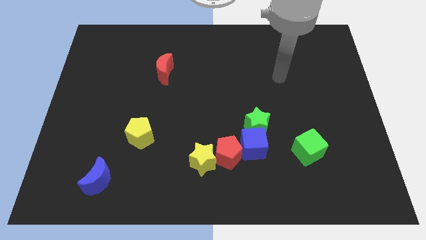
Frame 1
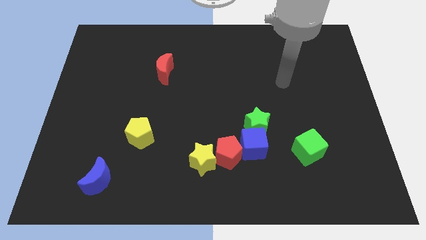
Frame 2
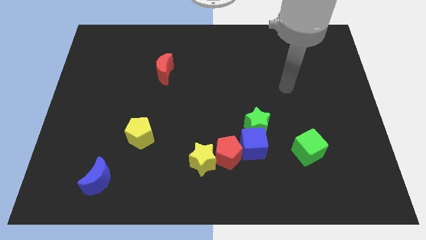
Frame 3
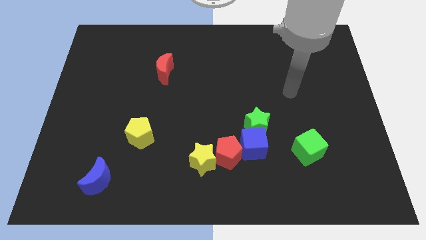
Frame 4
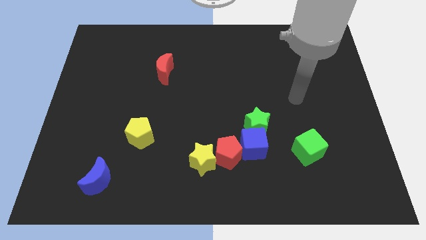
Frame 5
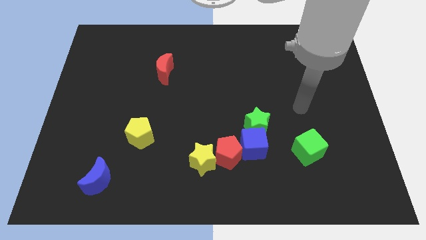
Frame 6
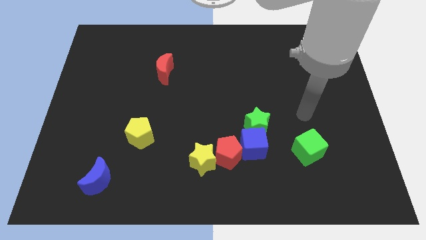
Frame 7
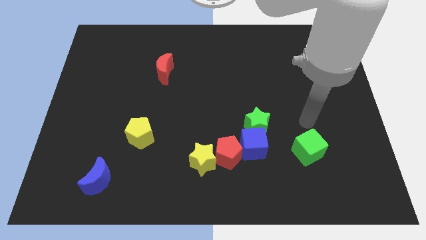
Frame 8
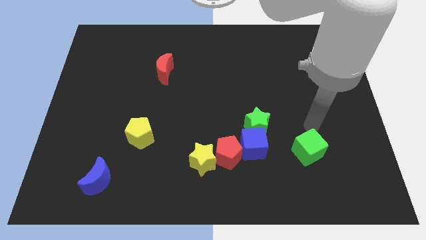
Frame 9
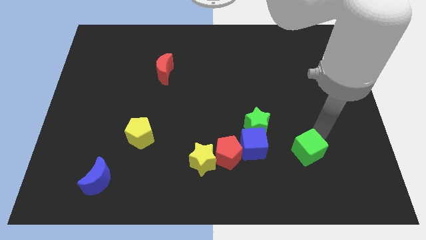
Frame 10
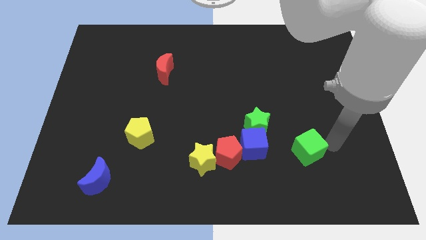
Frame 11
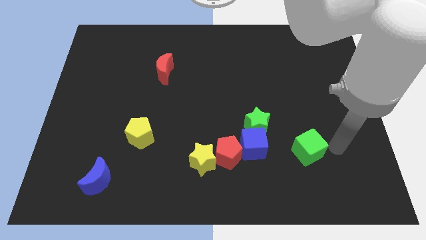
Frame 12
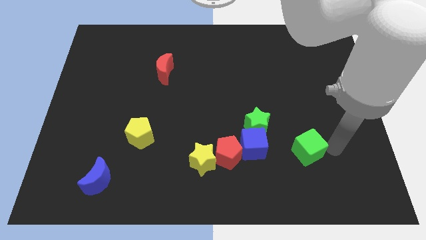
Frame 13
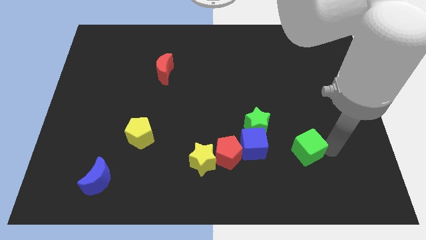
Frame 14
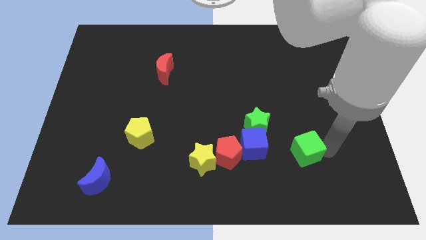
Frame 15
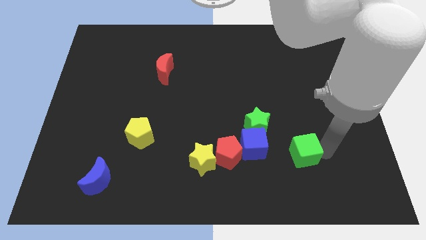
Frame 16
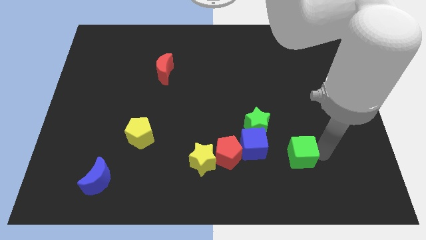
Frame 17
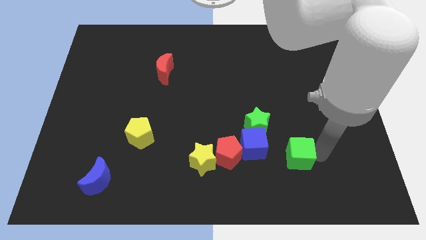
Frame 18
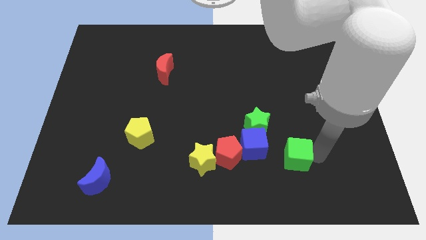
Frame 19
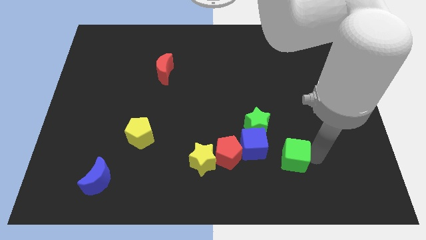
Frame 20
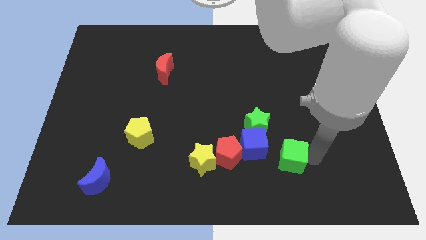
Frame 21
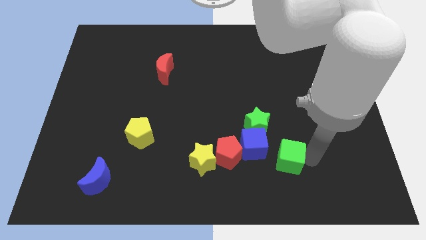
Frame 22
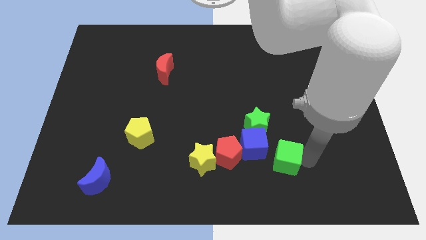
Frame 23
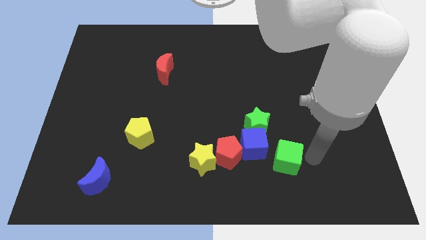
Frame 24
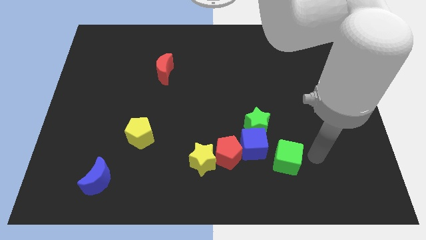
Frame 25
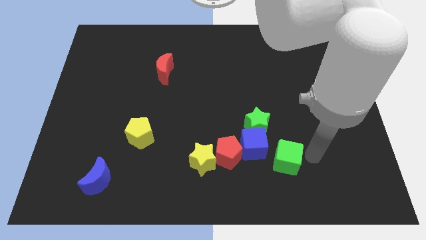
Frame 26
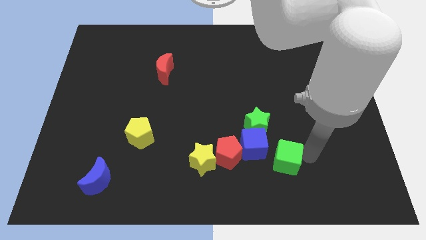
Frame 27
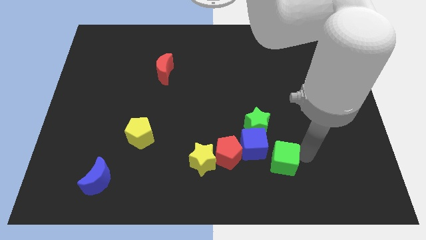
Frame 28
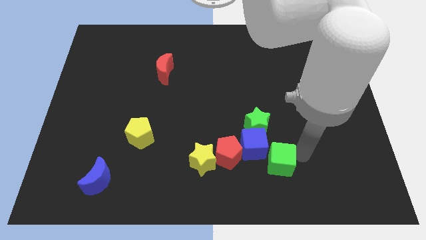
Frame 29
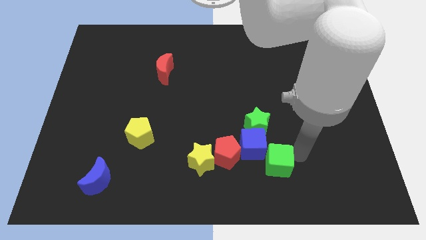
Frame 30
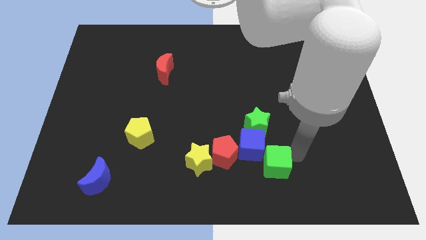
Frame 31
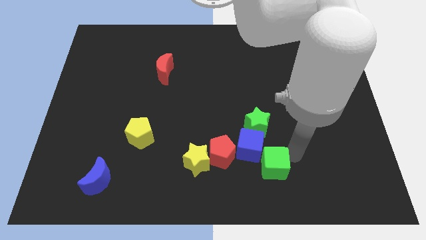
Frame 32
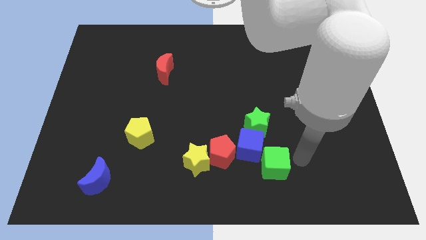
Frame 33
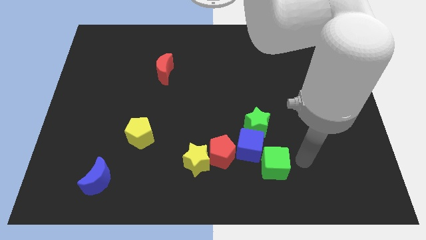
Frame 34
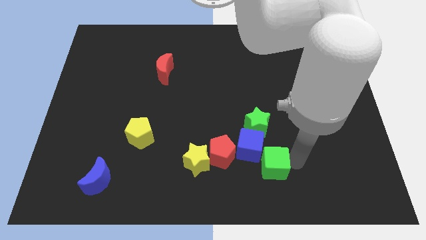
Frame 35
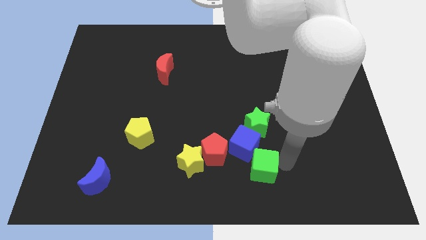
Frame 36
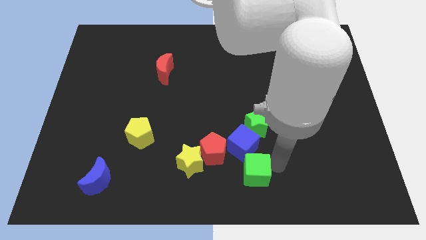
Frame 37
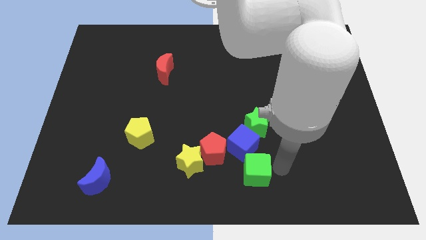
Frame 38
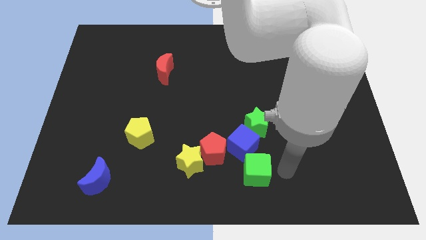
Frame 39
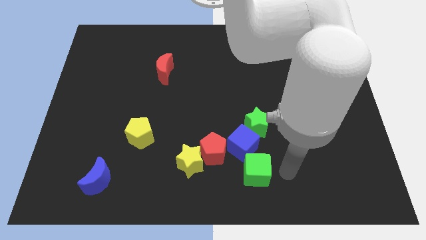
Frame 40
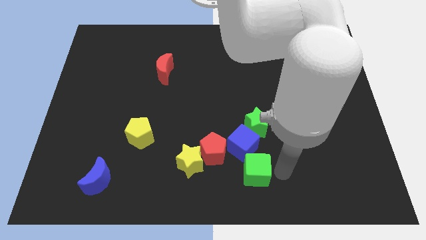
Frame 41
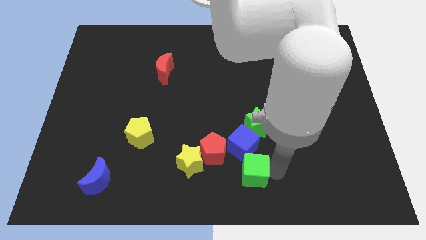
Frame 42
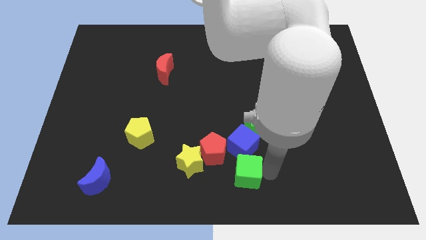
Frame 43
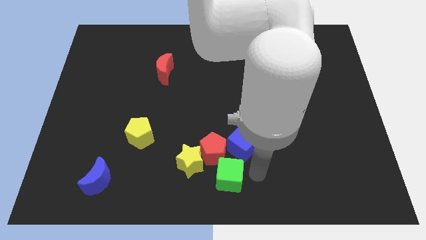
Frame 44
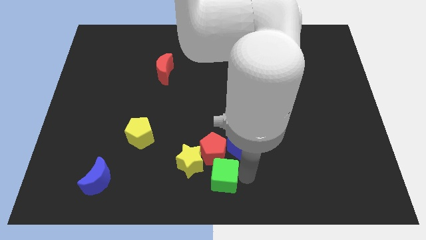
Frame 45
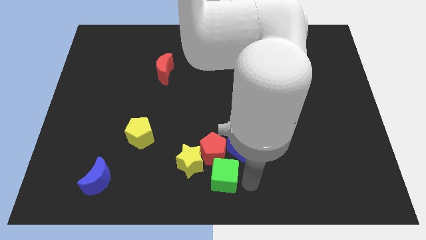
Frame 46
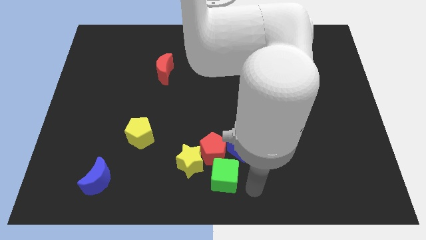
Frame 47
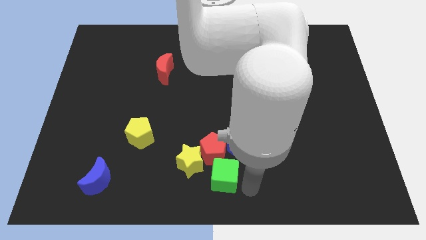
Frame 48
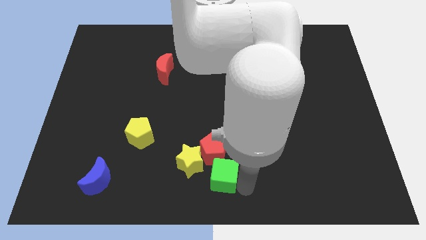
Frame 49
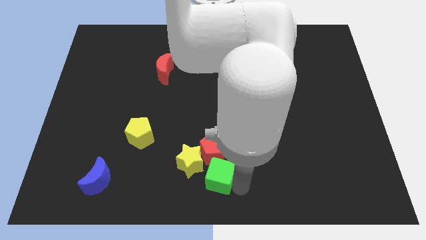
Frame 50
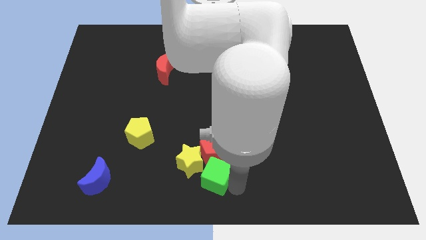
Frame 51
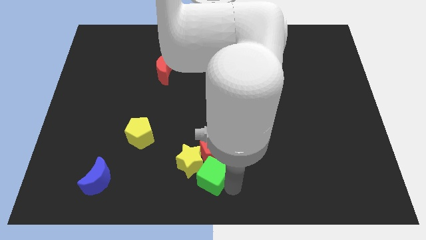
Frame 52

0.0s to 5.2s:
slide the green cube towards the yellow star

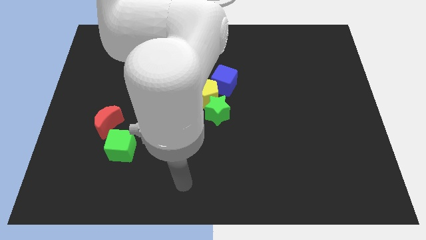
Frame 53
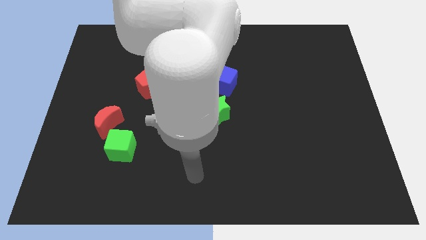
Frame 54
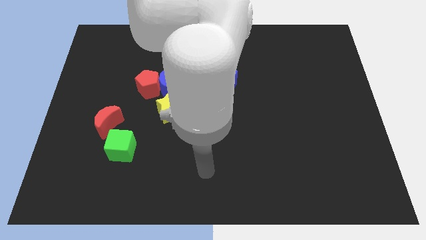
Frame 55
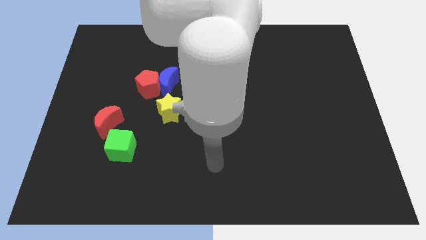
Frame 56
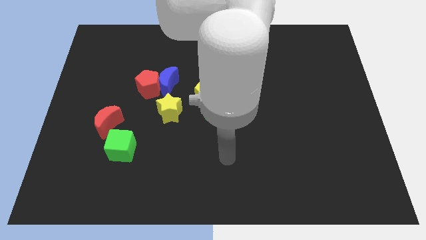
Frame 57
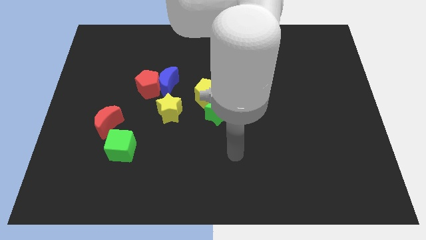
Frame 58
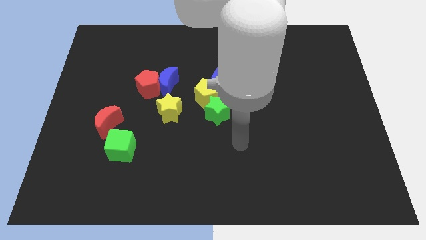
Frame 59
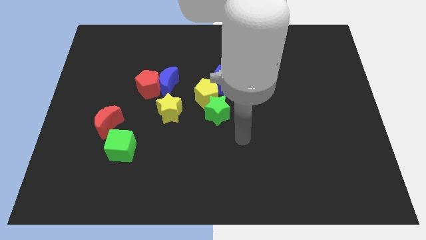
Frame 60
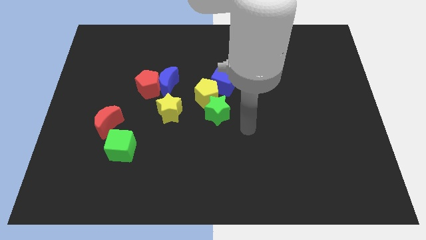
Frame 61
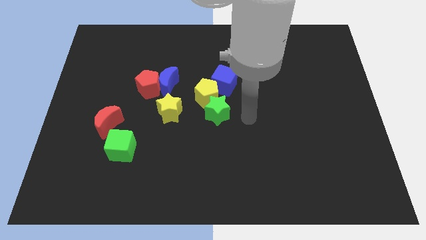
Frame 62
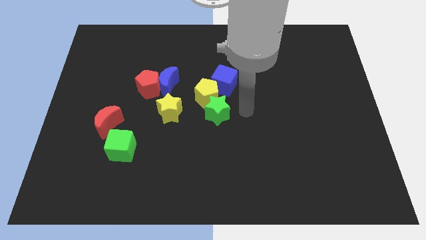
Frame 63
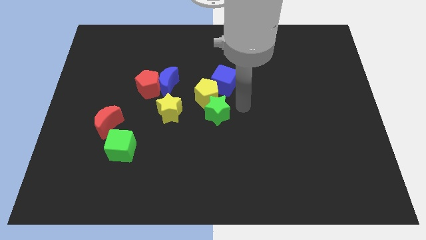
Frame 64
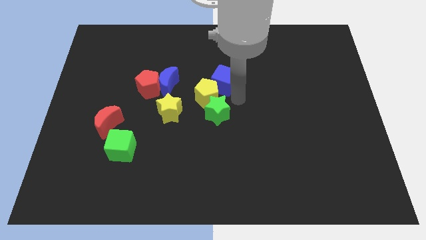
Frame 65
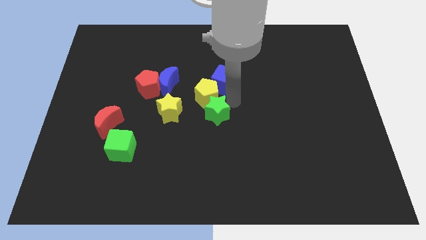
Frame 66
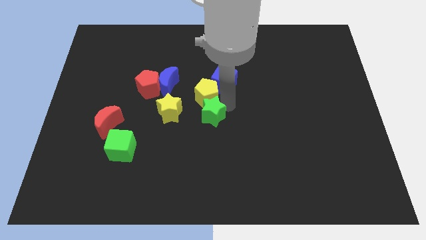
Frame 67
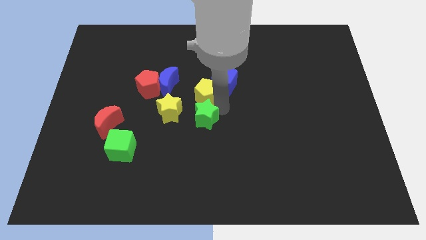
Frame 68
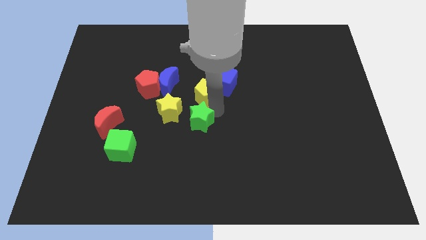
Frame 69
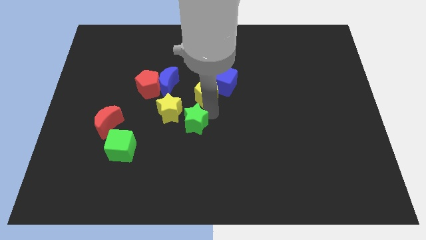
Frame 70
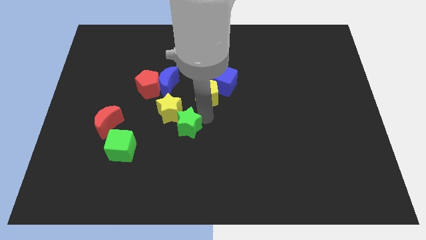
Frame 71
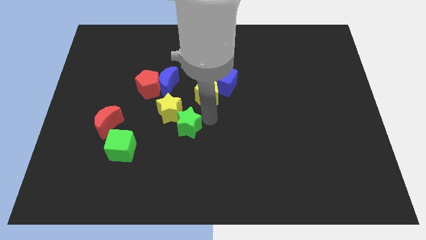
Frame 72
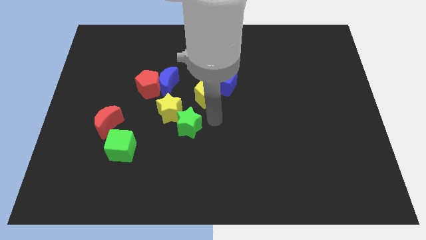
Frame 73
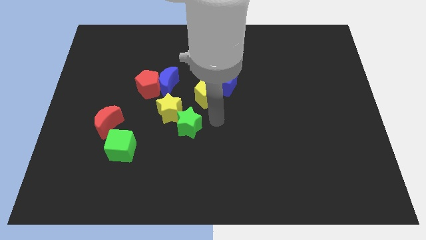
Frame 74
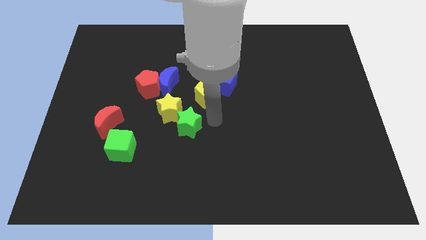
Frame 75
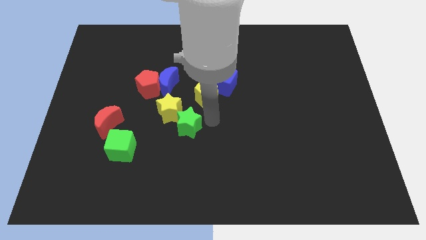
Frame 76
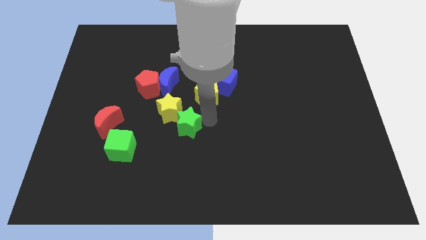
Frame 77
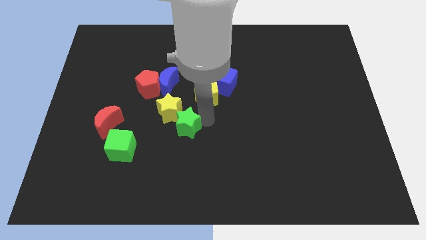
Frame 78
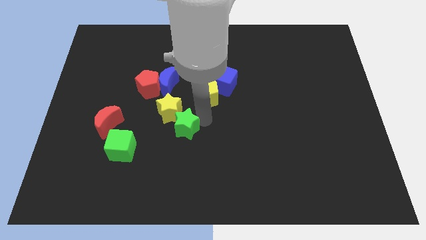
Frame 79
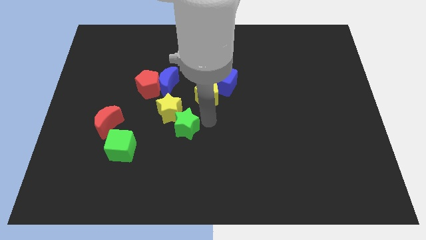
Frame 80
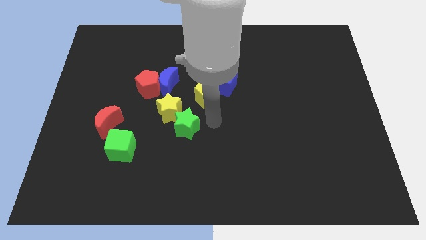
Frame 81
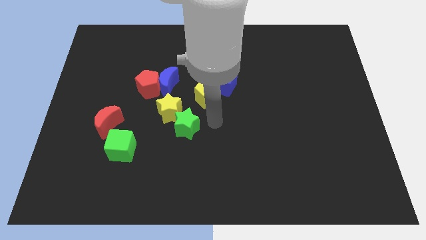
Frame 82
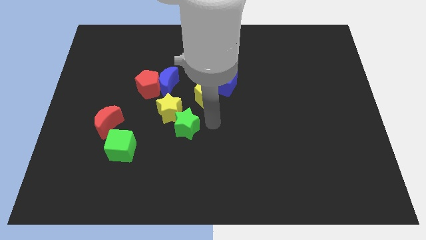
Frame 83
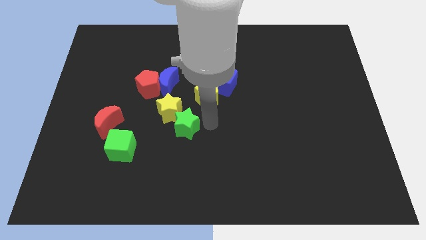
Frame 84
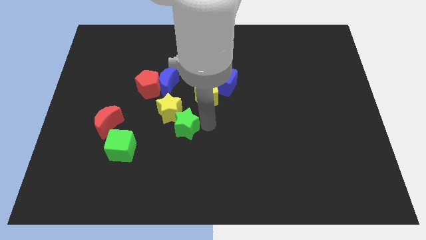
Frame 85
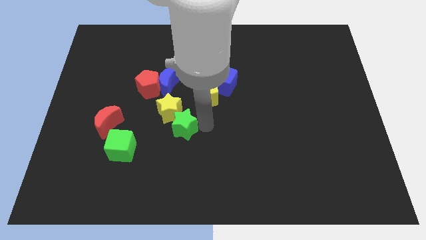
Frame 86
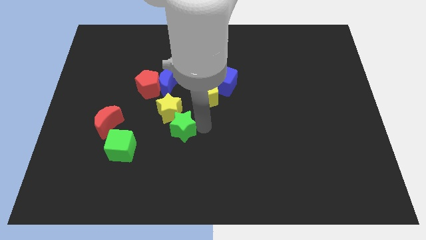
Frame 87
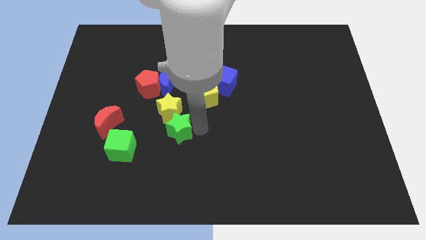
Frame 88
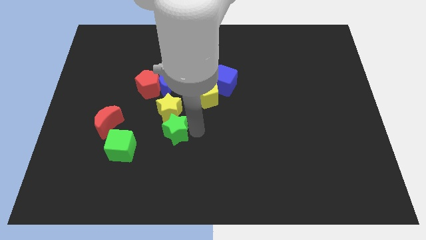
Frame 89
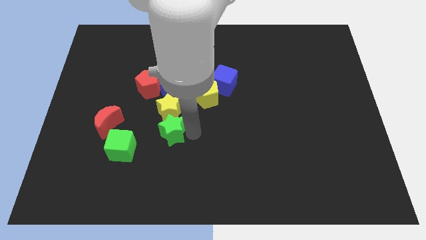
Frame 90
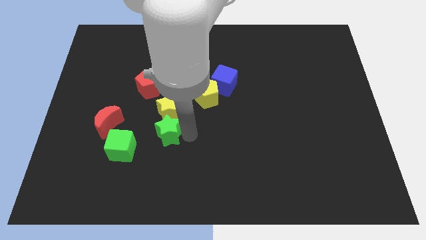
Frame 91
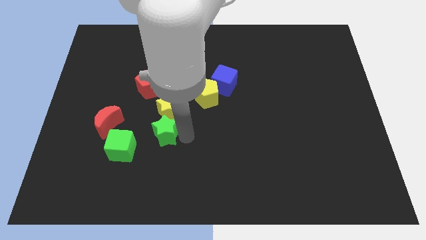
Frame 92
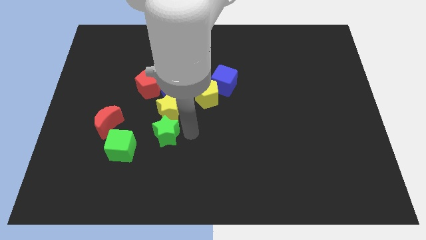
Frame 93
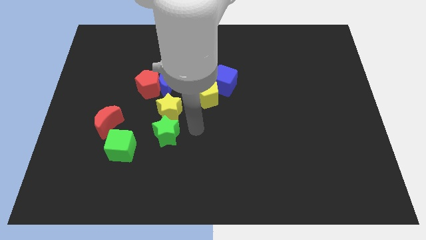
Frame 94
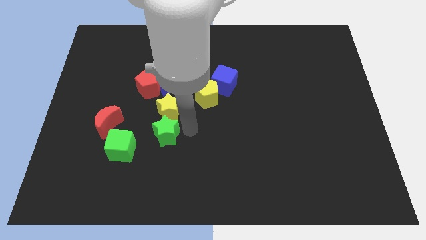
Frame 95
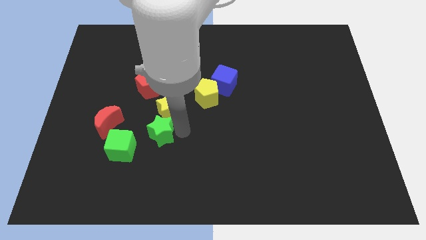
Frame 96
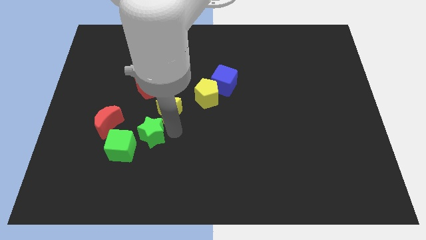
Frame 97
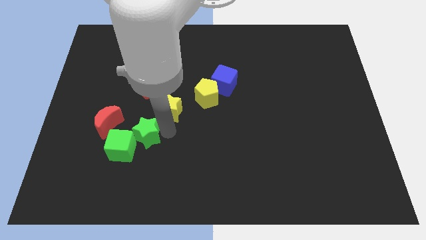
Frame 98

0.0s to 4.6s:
put the green star to the green cube
